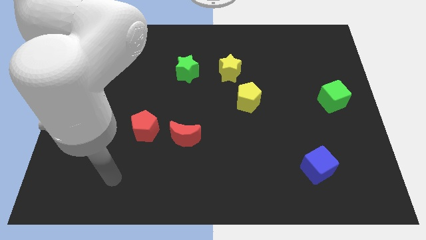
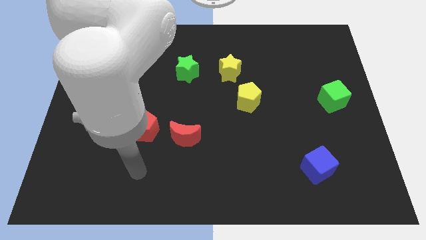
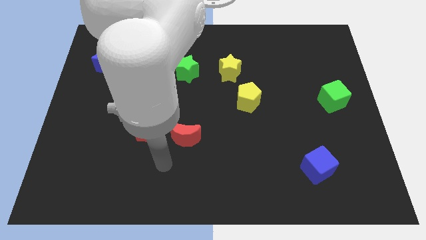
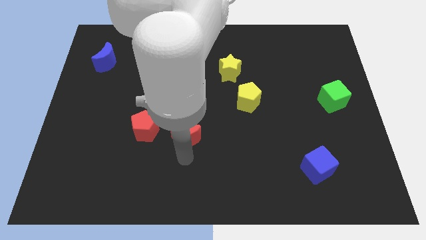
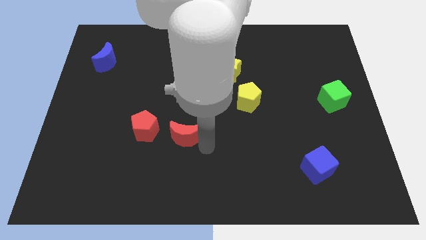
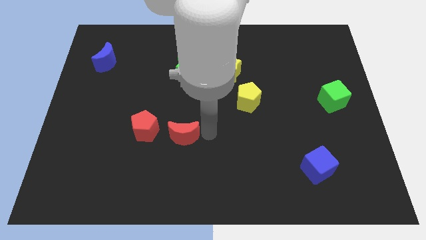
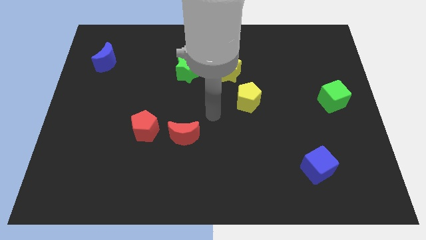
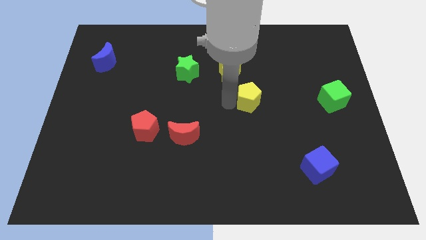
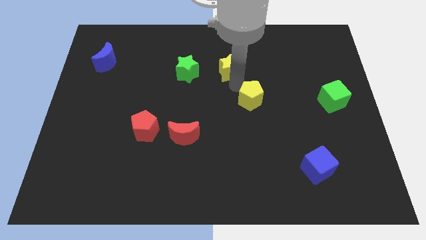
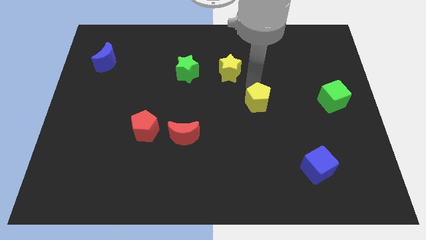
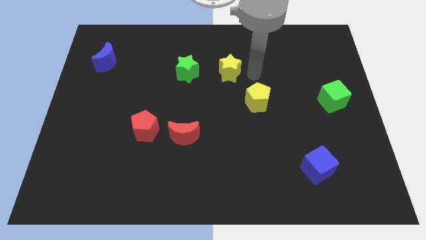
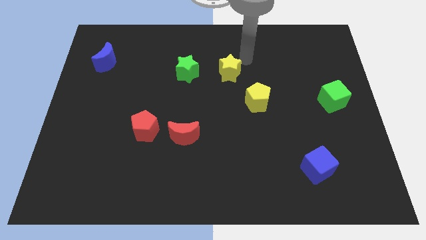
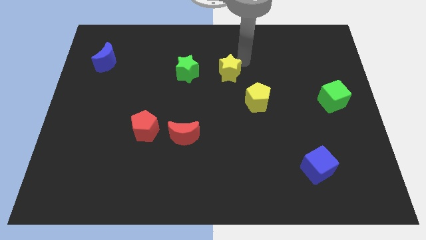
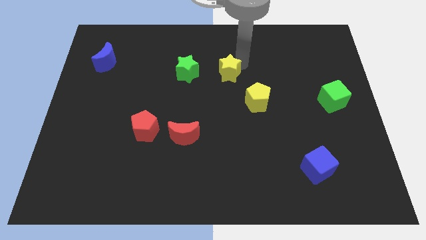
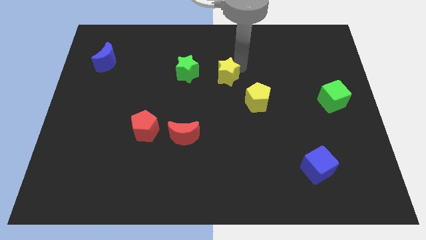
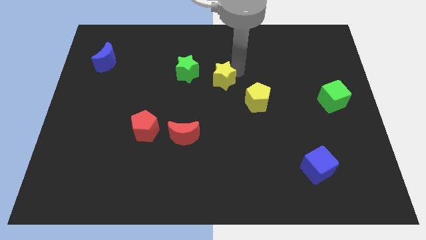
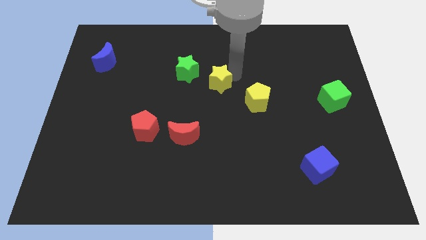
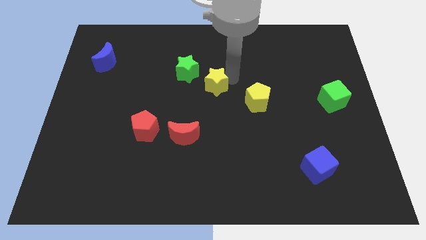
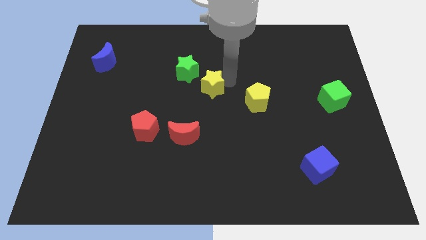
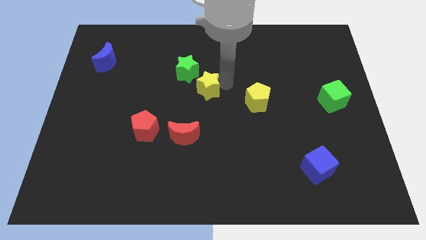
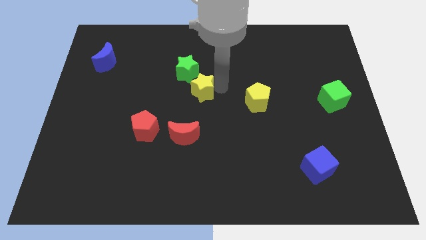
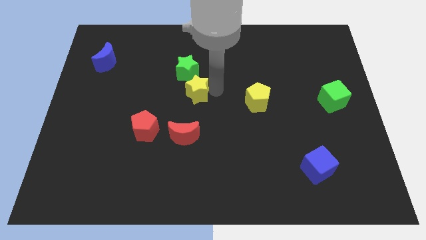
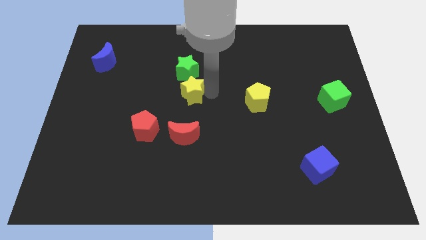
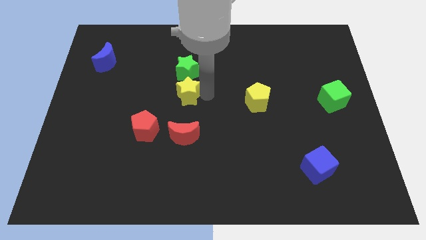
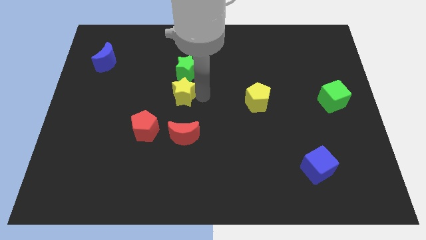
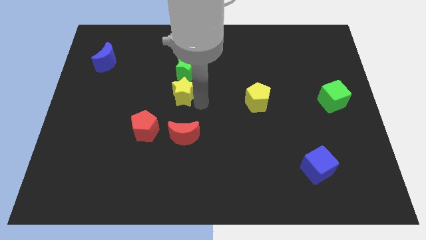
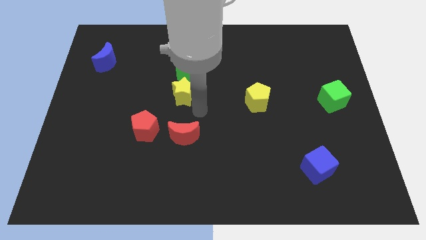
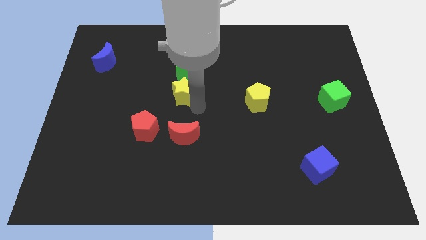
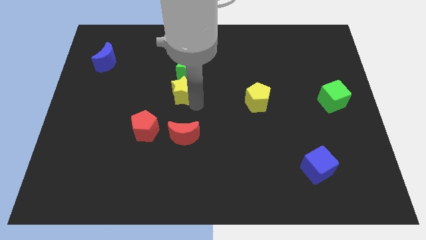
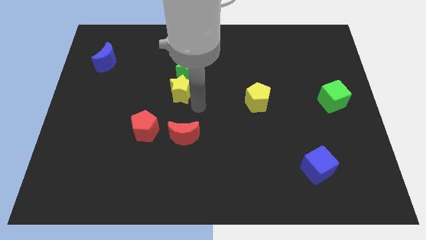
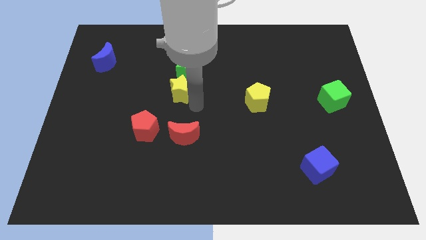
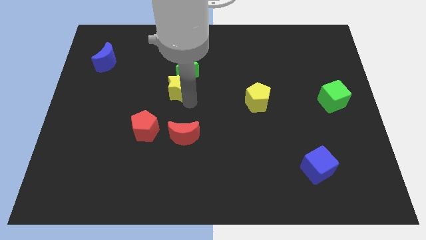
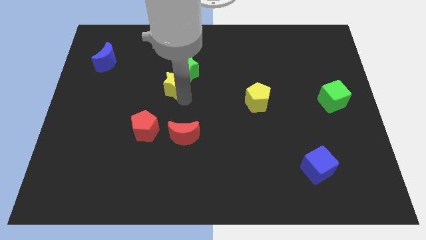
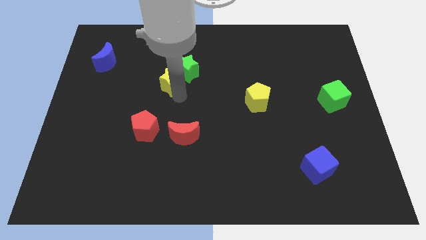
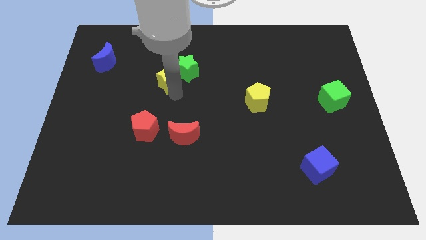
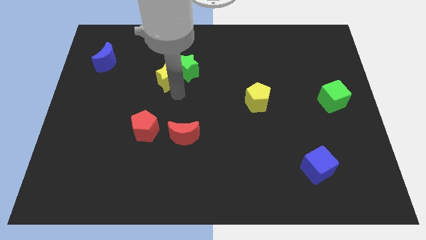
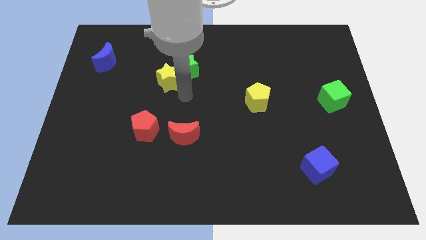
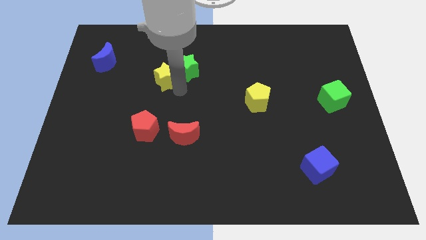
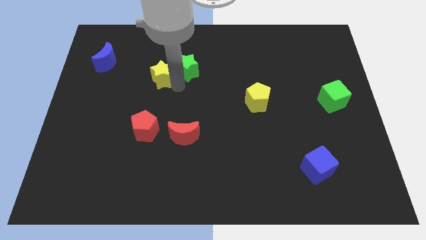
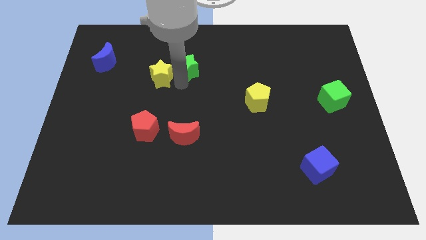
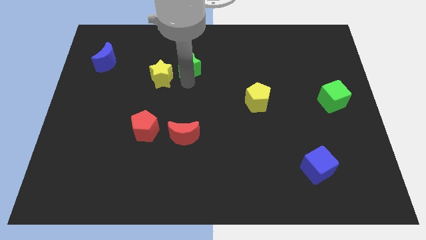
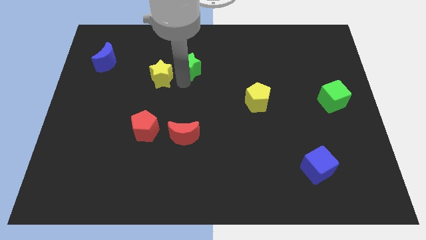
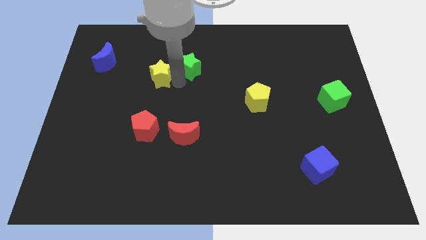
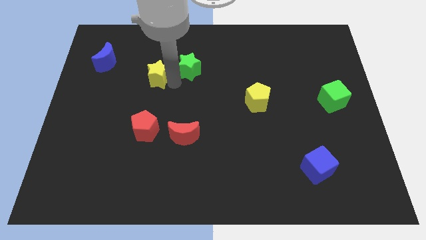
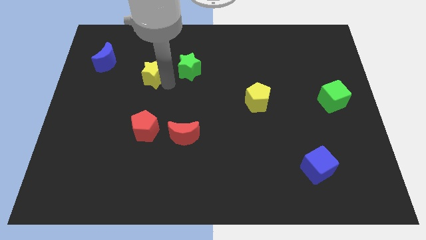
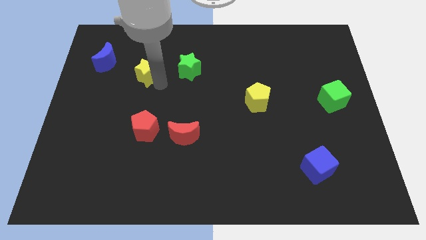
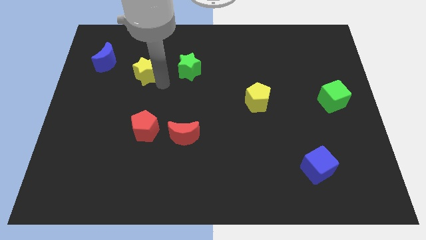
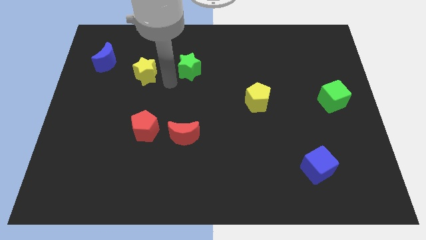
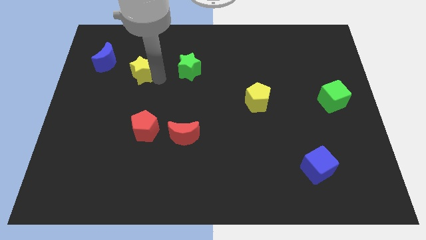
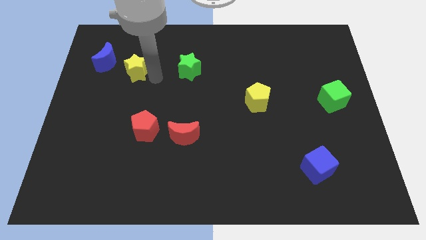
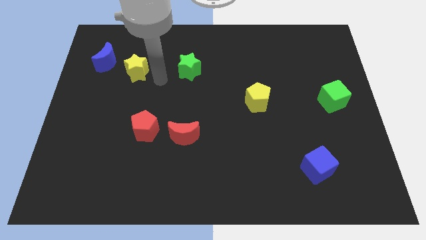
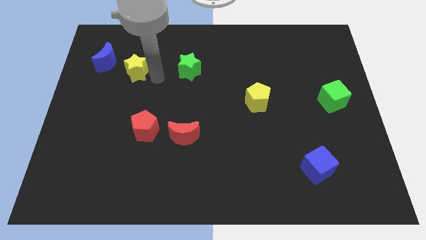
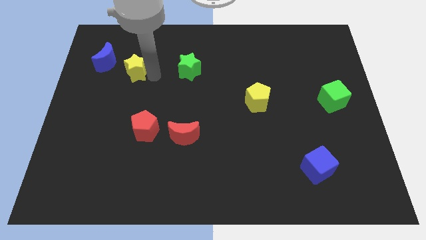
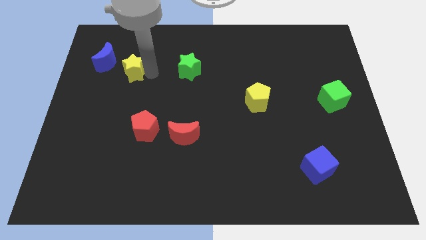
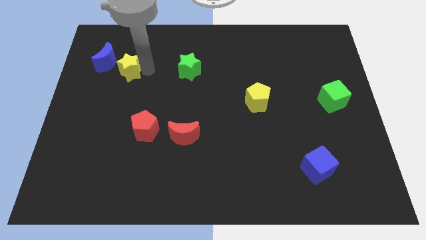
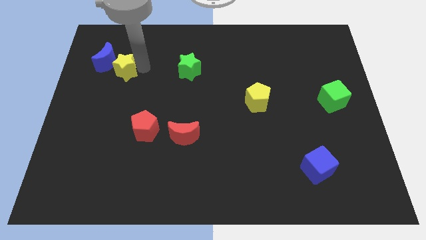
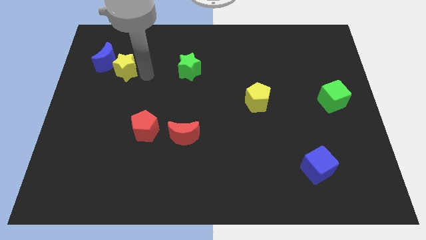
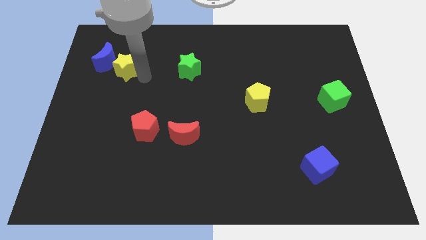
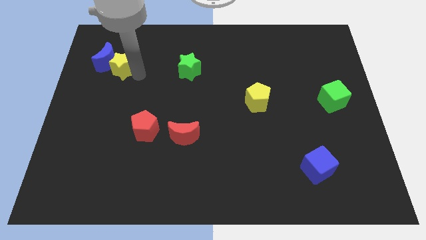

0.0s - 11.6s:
push the yellow star towards the blue moon

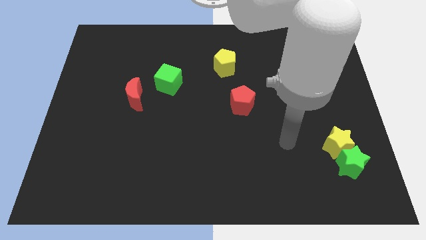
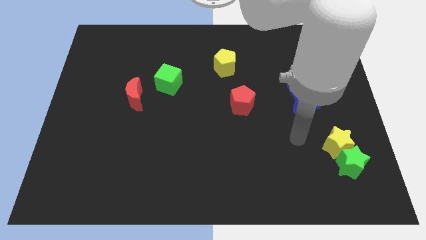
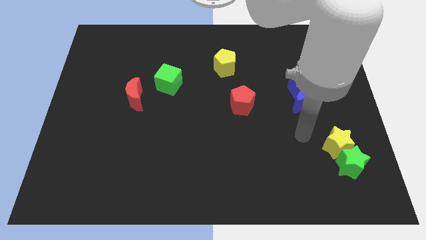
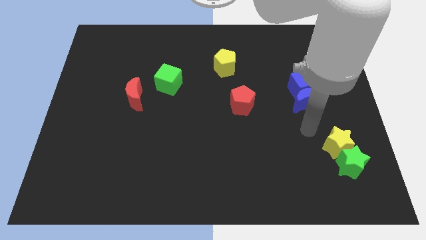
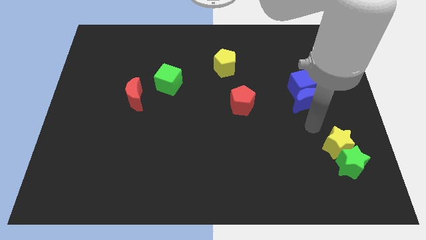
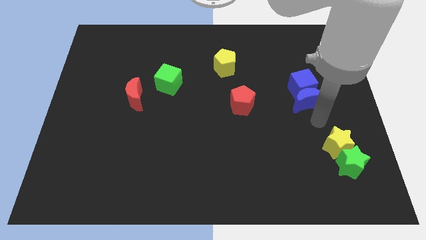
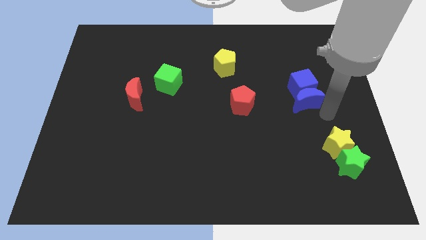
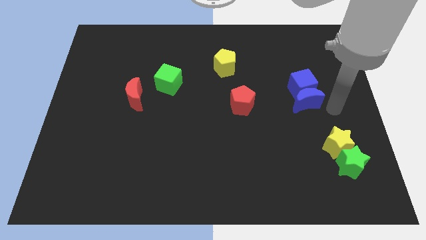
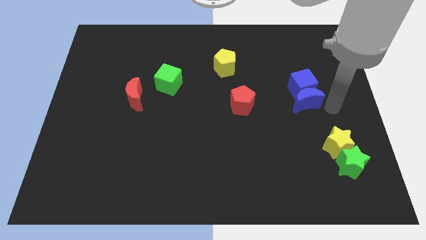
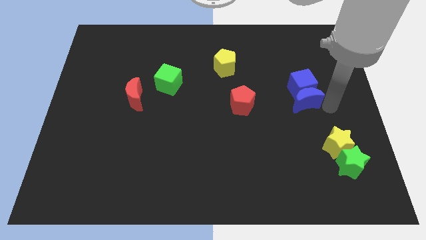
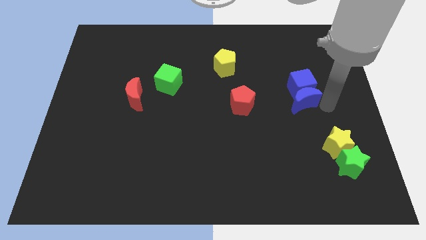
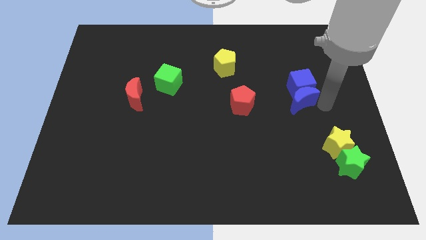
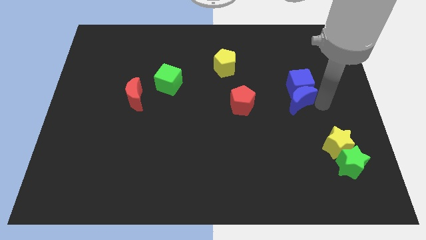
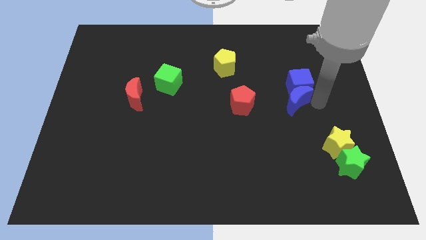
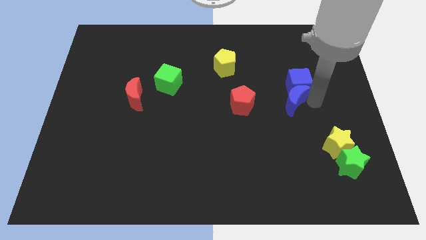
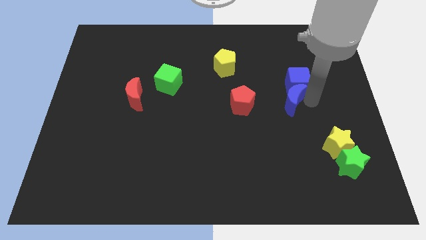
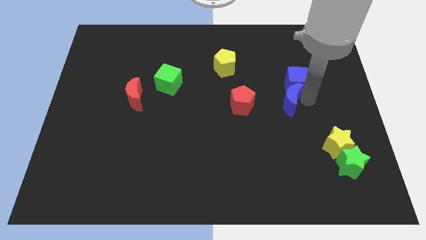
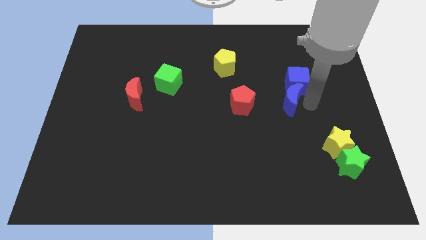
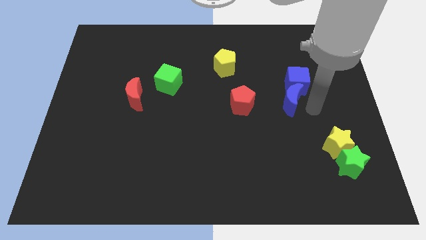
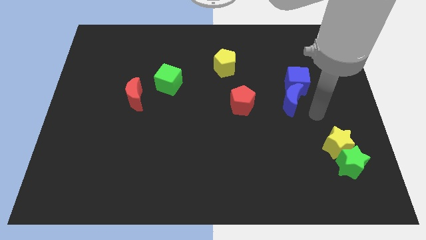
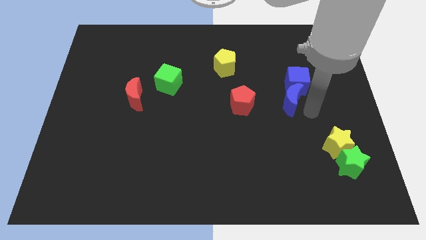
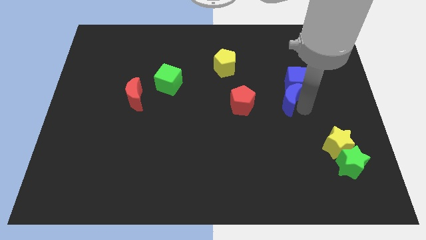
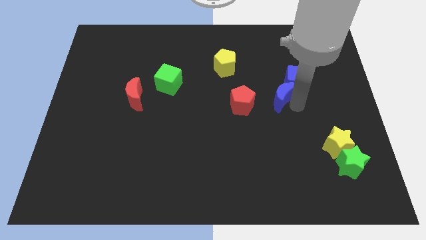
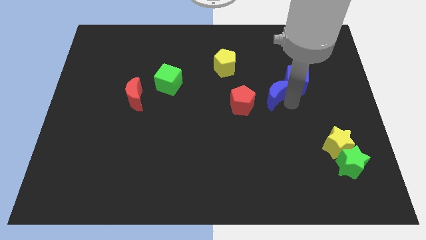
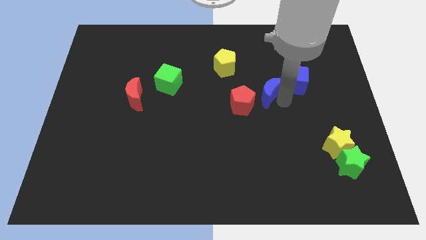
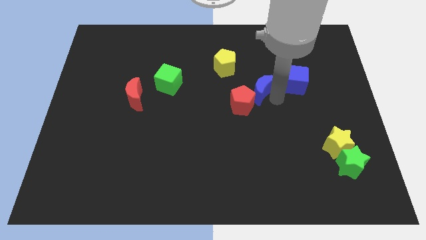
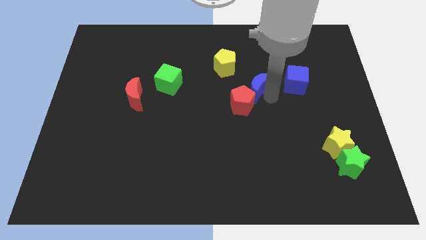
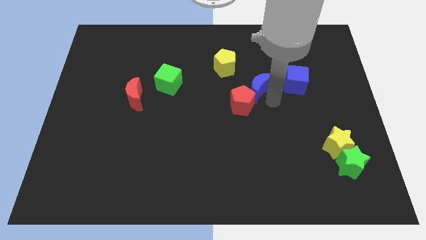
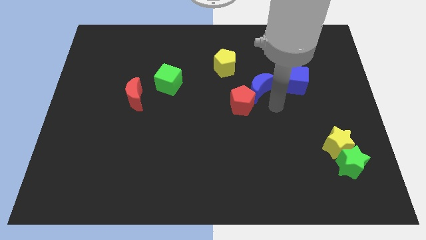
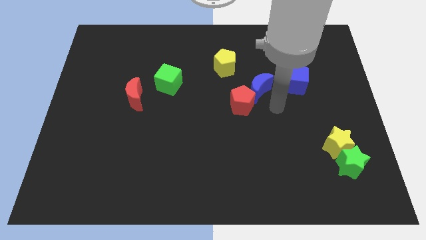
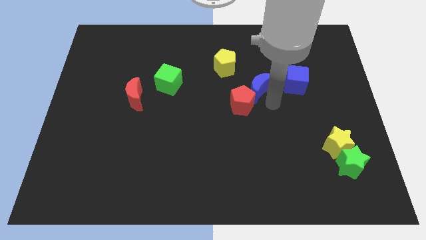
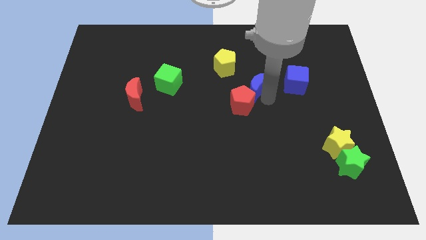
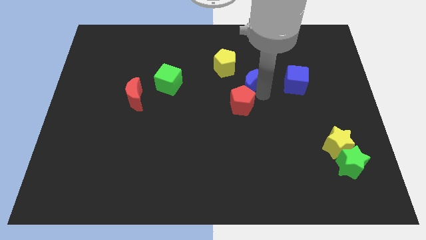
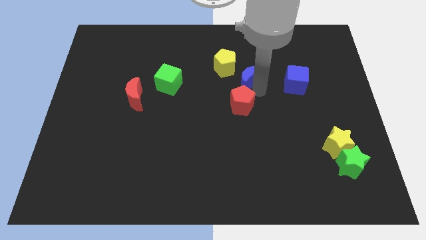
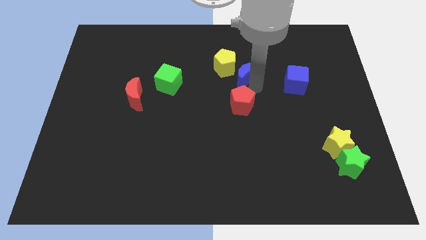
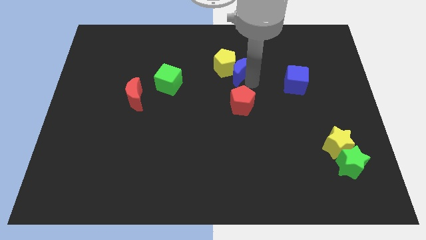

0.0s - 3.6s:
push the blue moon close to the yellow pentagon
